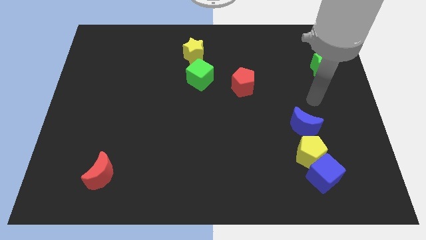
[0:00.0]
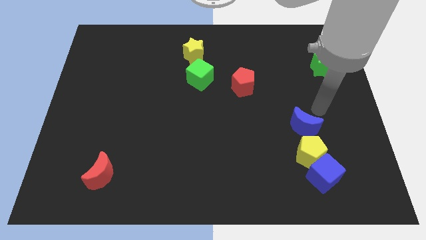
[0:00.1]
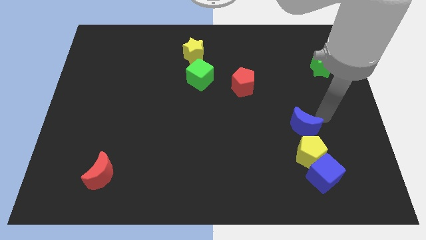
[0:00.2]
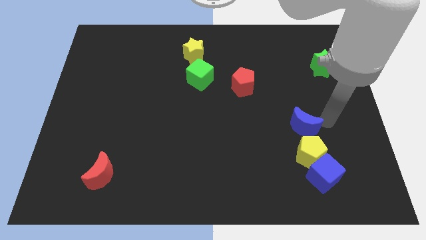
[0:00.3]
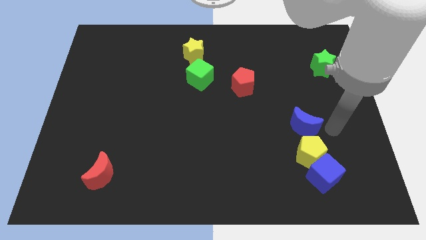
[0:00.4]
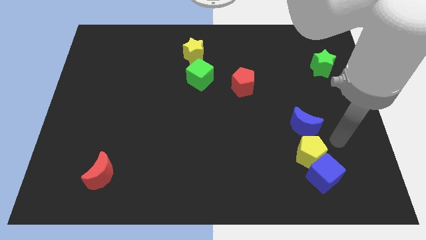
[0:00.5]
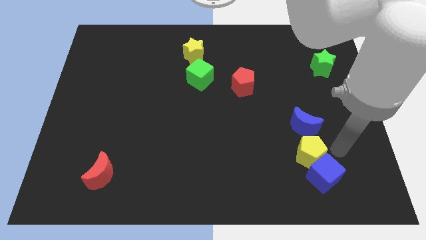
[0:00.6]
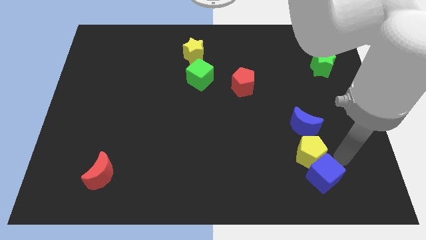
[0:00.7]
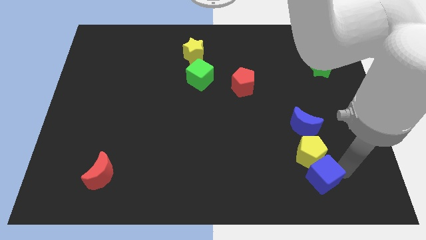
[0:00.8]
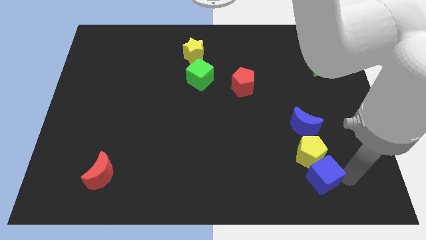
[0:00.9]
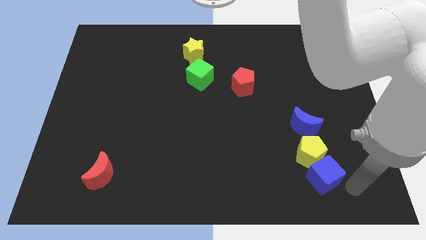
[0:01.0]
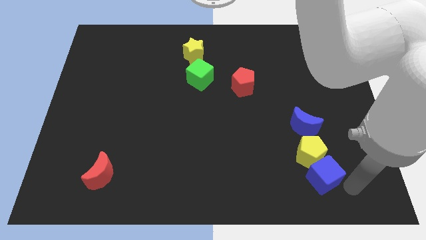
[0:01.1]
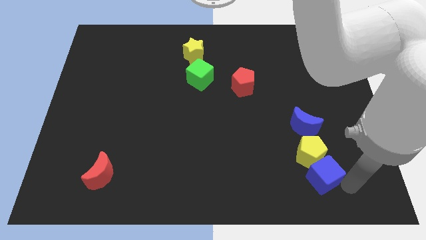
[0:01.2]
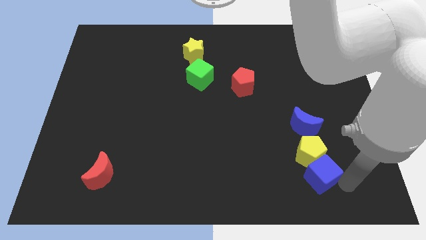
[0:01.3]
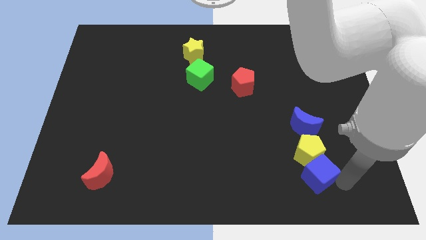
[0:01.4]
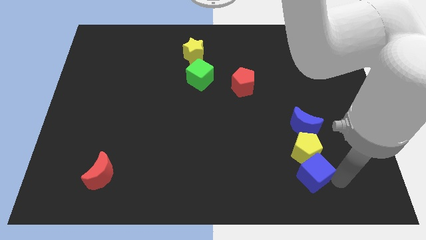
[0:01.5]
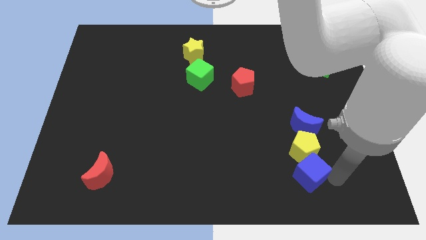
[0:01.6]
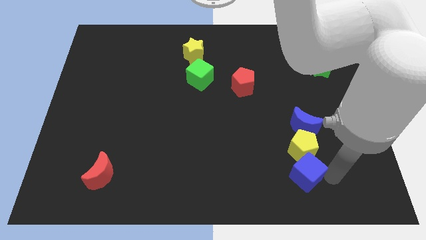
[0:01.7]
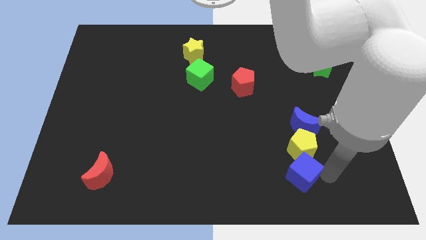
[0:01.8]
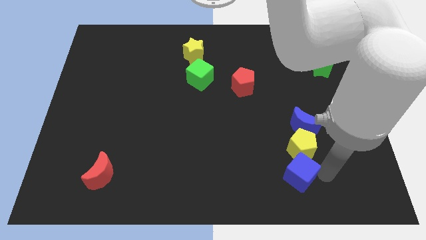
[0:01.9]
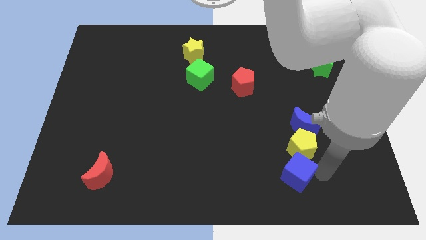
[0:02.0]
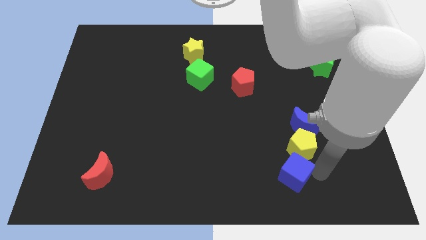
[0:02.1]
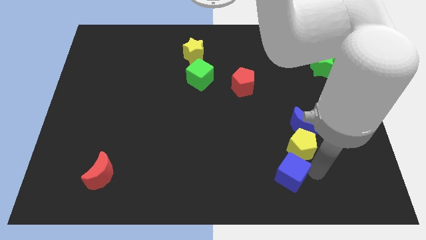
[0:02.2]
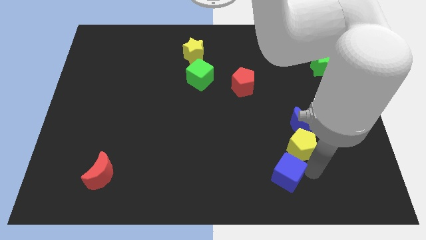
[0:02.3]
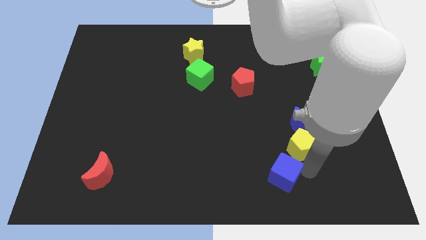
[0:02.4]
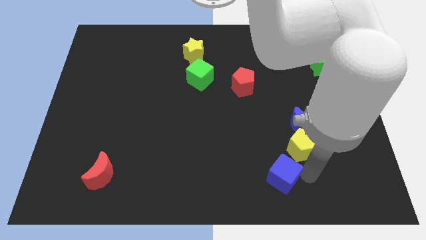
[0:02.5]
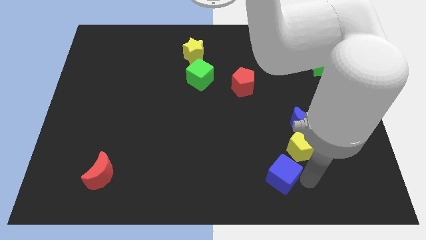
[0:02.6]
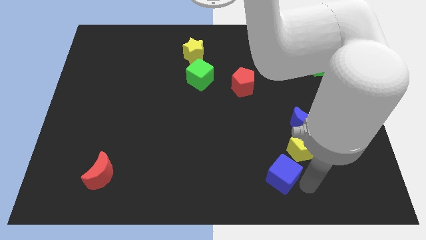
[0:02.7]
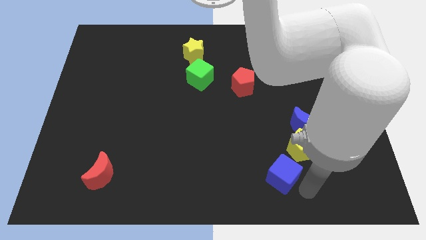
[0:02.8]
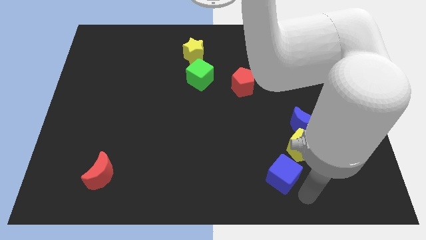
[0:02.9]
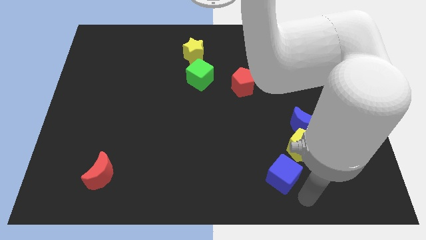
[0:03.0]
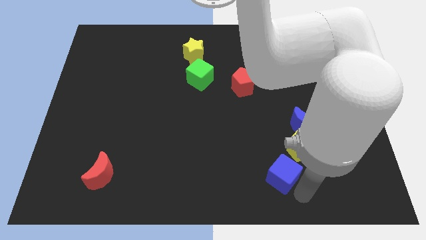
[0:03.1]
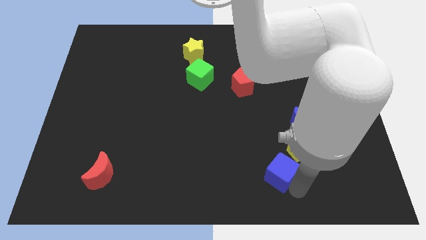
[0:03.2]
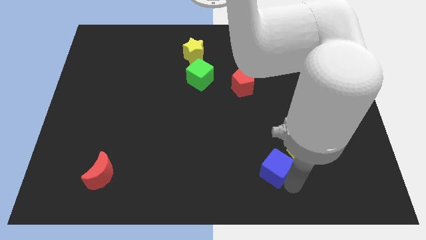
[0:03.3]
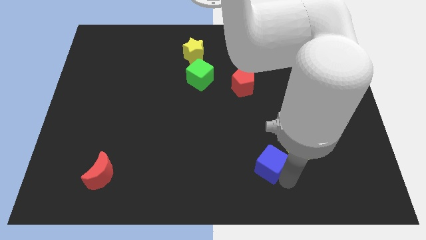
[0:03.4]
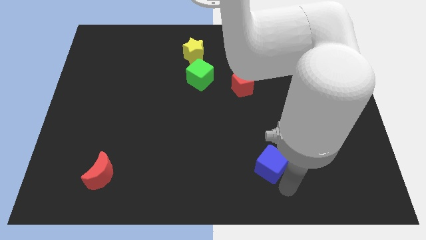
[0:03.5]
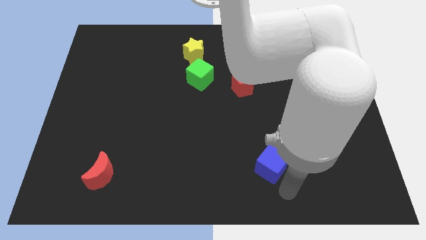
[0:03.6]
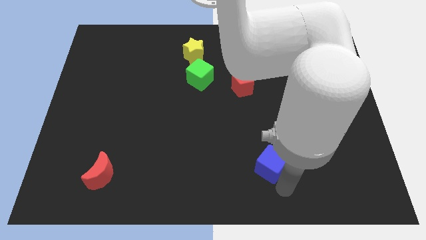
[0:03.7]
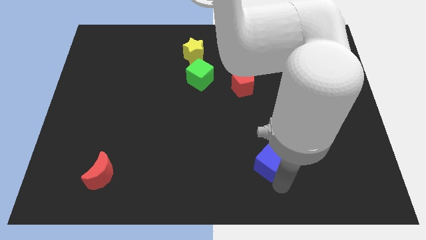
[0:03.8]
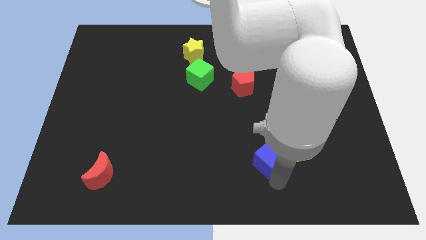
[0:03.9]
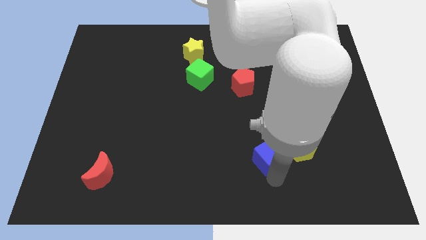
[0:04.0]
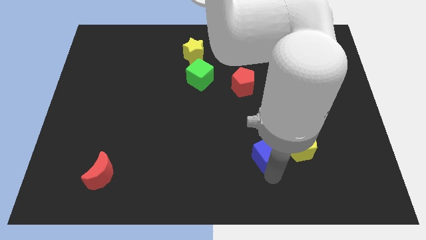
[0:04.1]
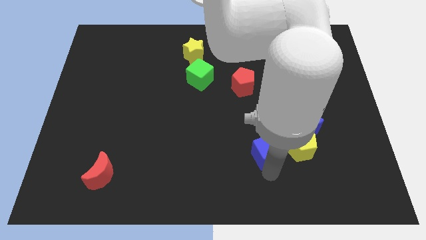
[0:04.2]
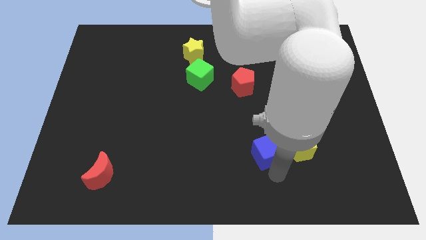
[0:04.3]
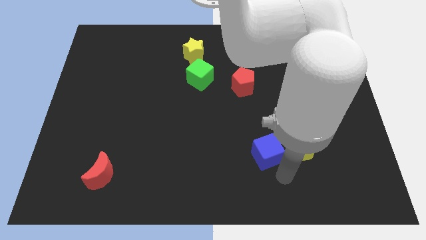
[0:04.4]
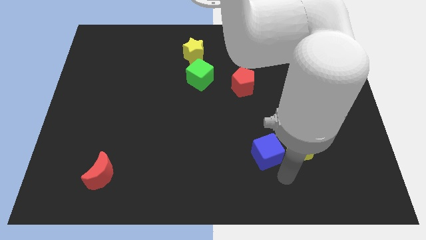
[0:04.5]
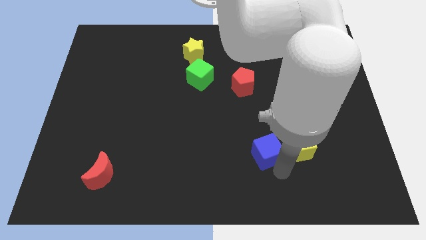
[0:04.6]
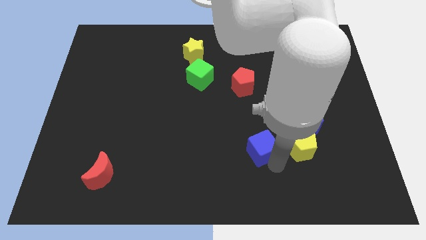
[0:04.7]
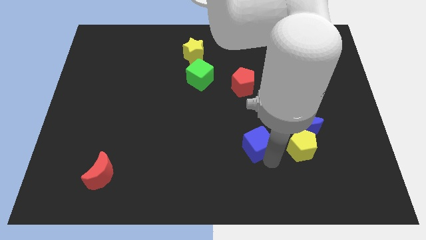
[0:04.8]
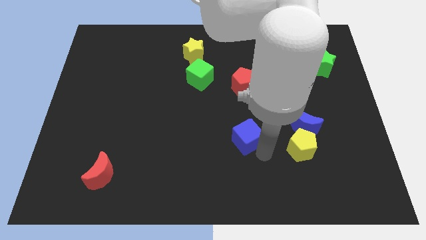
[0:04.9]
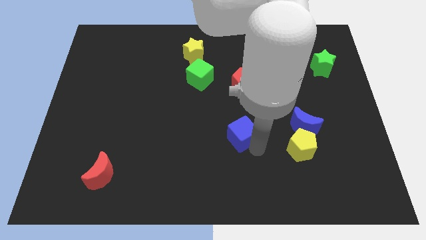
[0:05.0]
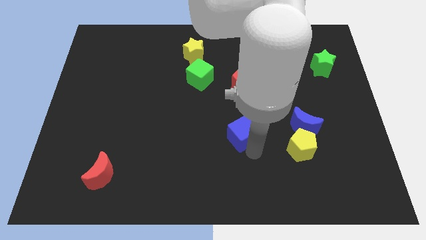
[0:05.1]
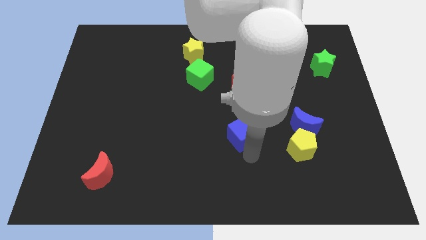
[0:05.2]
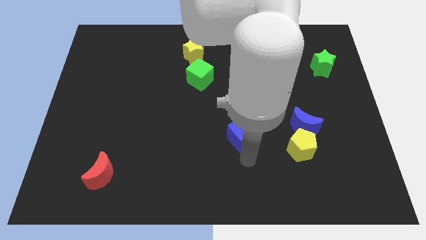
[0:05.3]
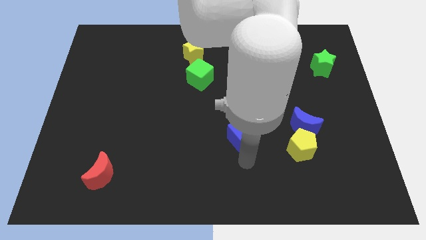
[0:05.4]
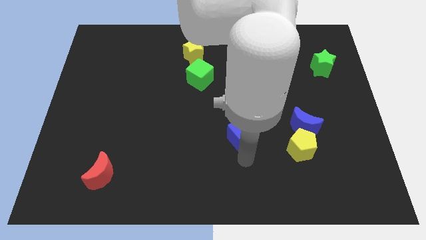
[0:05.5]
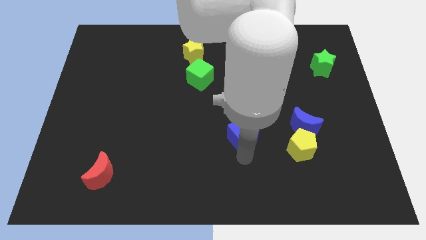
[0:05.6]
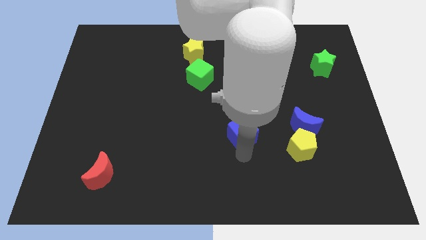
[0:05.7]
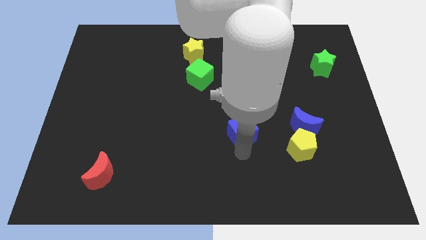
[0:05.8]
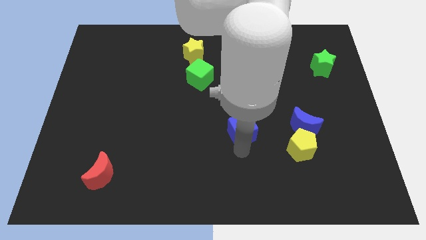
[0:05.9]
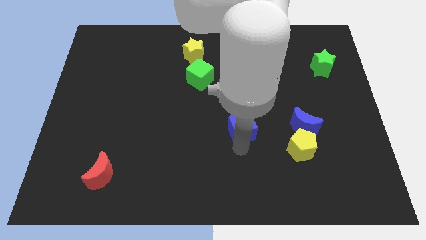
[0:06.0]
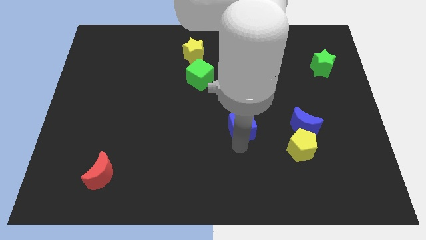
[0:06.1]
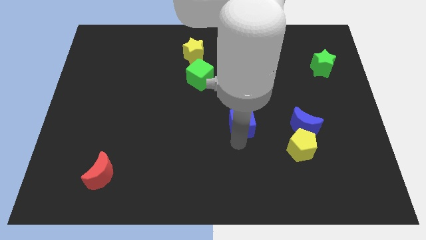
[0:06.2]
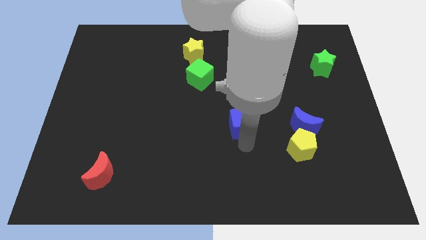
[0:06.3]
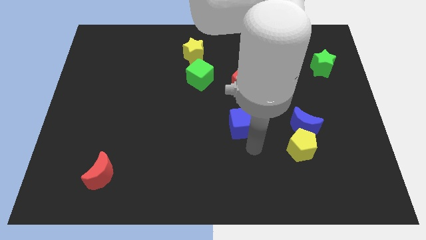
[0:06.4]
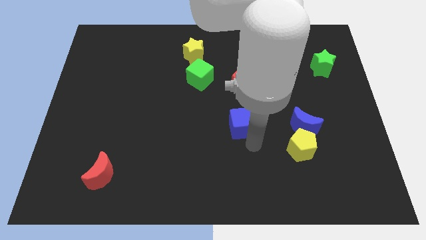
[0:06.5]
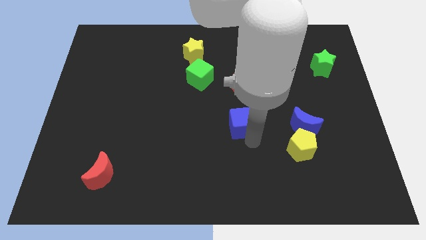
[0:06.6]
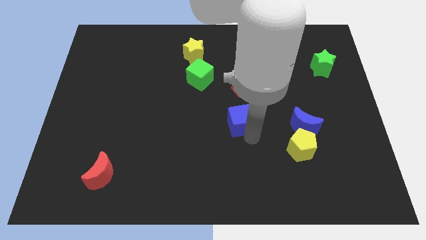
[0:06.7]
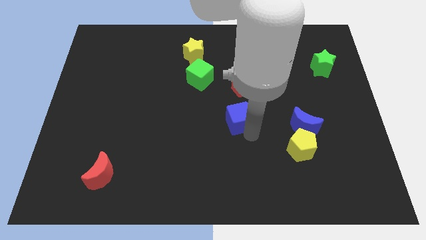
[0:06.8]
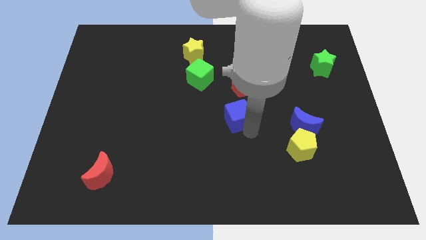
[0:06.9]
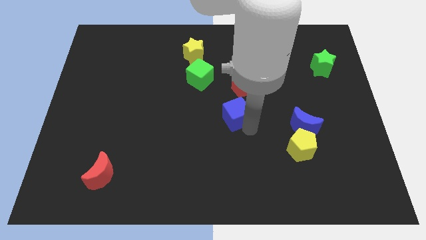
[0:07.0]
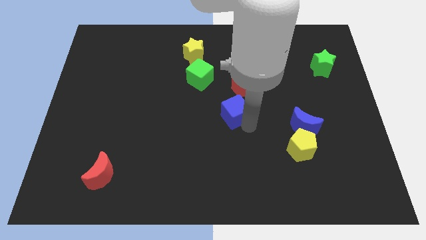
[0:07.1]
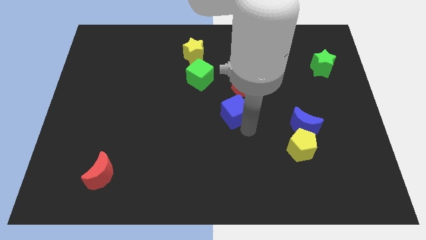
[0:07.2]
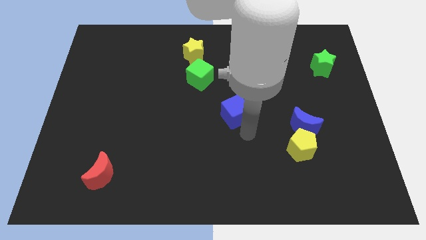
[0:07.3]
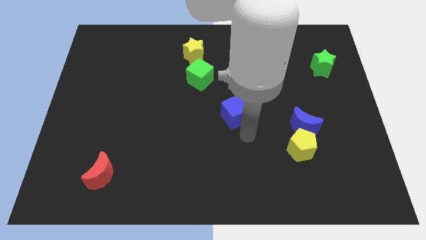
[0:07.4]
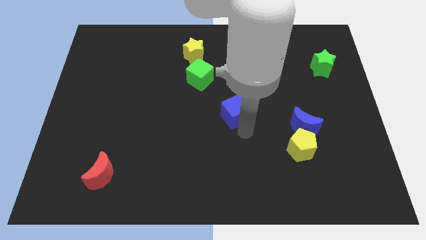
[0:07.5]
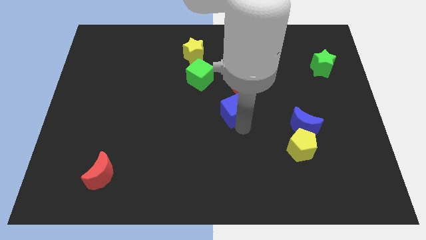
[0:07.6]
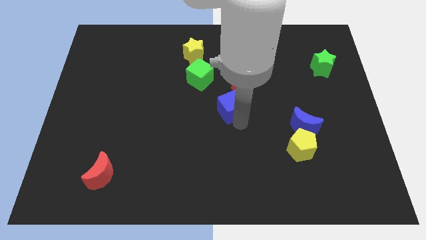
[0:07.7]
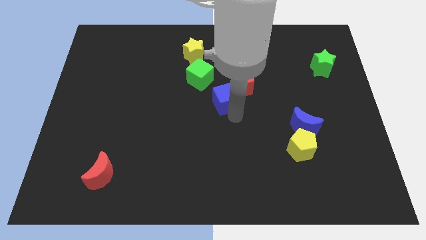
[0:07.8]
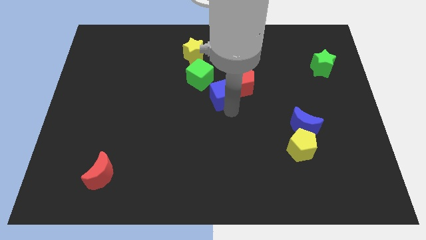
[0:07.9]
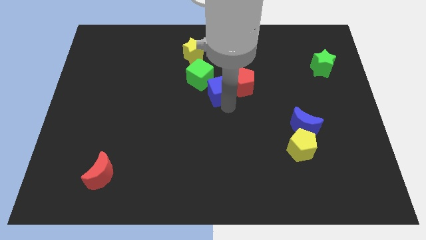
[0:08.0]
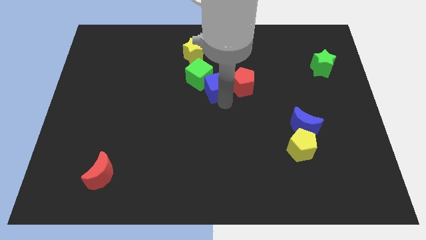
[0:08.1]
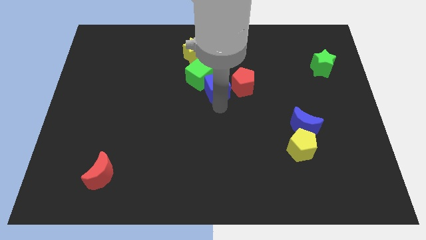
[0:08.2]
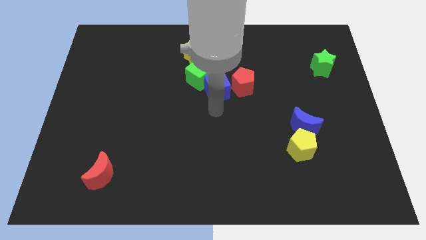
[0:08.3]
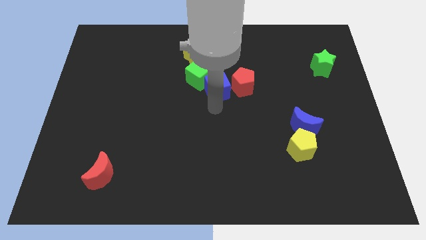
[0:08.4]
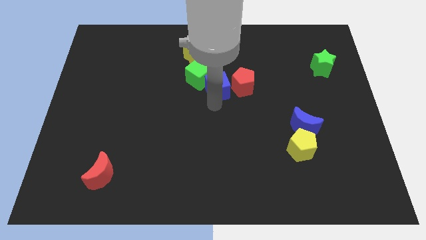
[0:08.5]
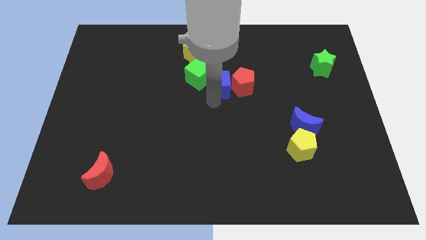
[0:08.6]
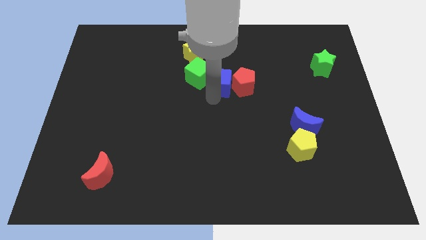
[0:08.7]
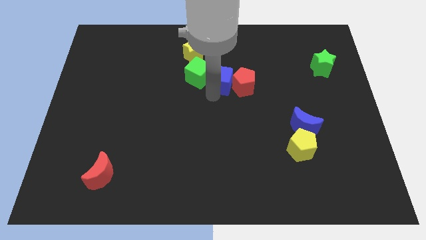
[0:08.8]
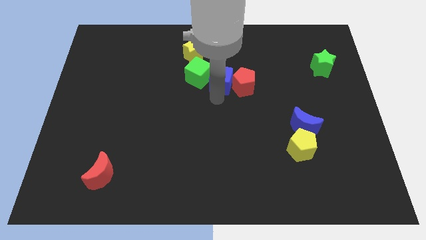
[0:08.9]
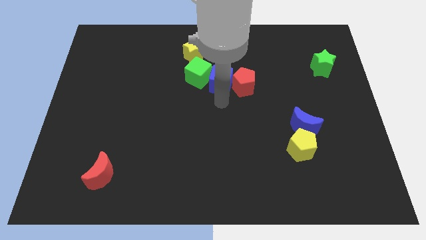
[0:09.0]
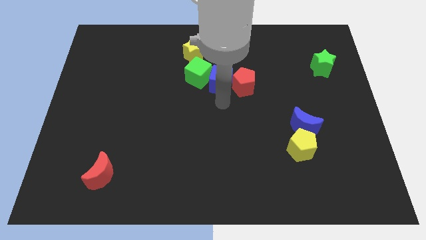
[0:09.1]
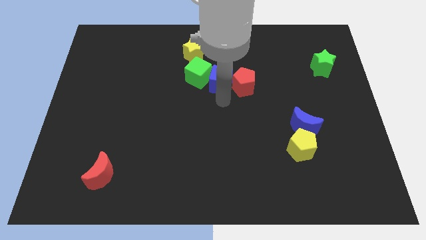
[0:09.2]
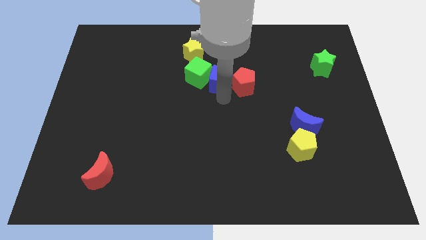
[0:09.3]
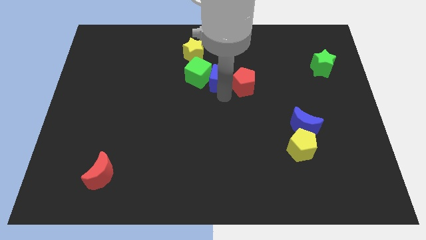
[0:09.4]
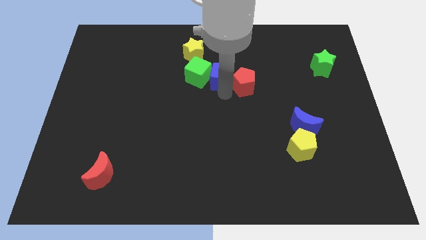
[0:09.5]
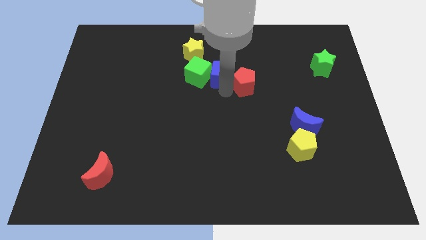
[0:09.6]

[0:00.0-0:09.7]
put the blue cube to the top right side of the green cube
